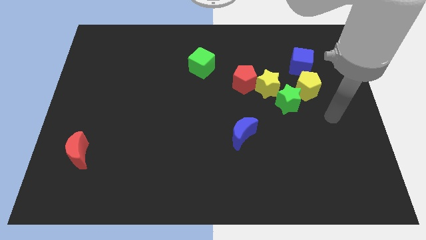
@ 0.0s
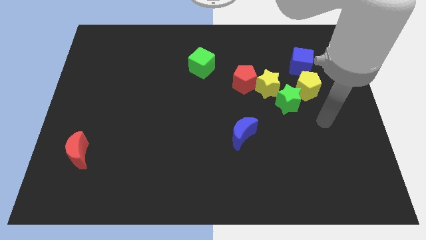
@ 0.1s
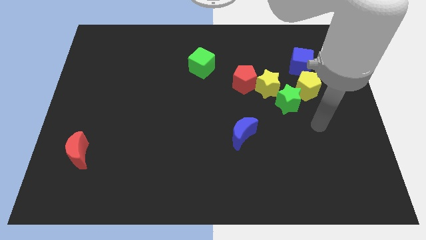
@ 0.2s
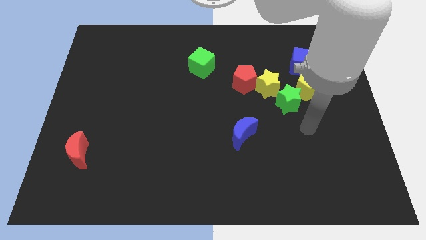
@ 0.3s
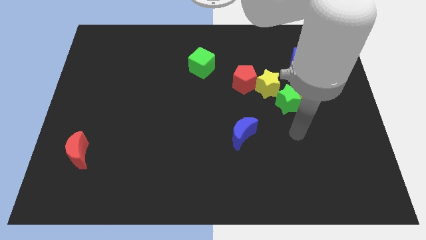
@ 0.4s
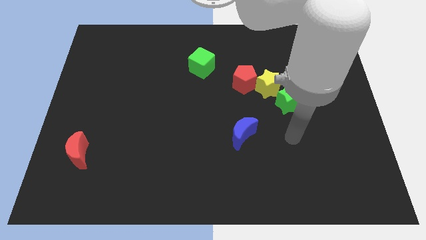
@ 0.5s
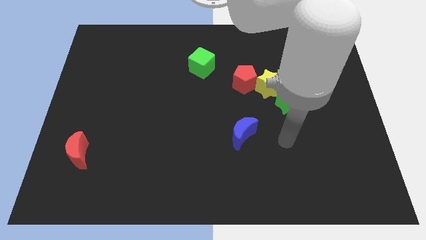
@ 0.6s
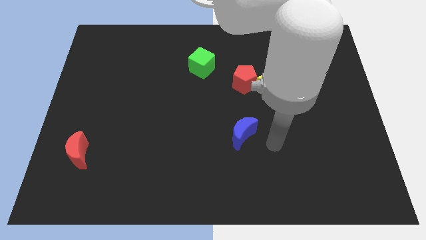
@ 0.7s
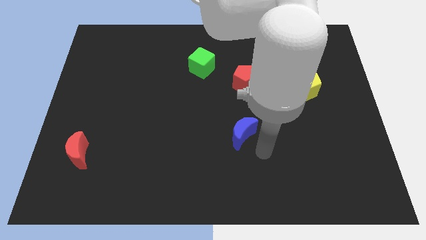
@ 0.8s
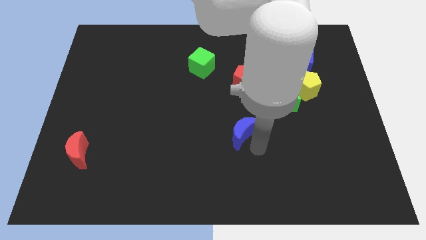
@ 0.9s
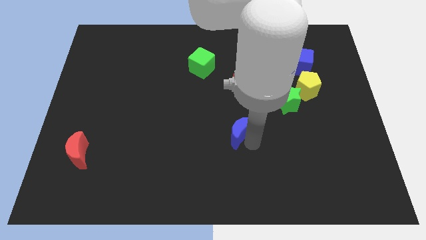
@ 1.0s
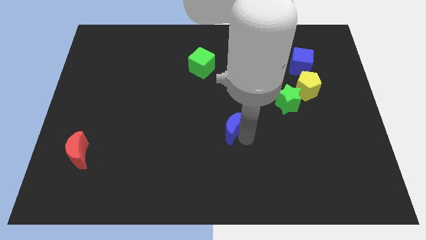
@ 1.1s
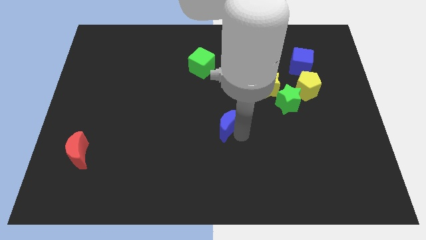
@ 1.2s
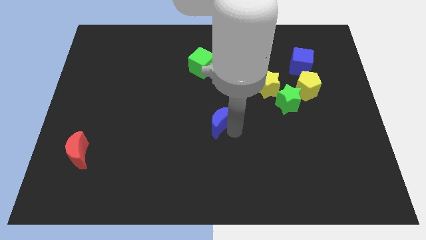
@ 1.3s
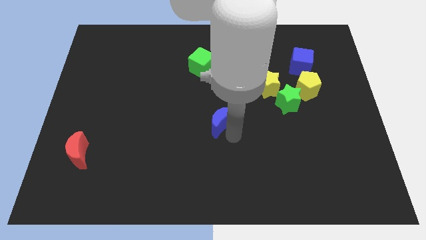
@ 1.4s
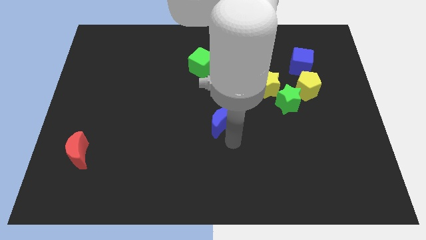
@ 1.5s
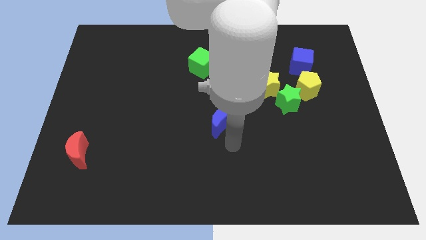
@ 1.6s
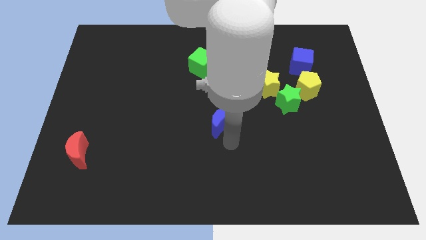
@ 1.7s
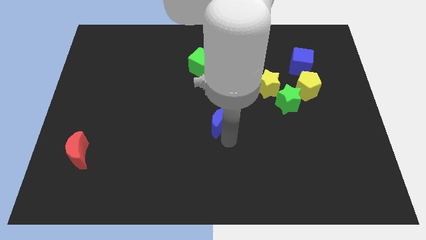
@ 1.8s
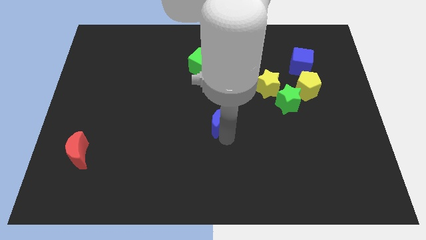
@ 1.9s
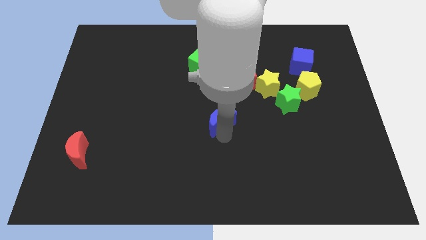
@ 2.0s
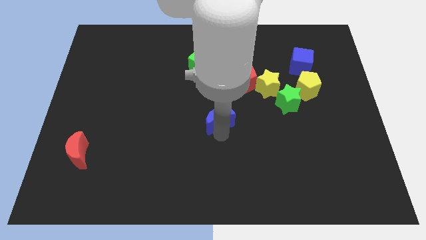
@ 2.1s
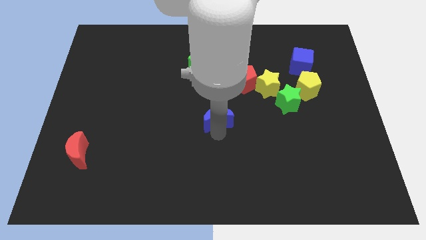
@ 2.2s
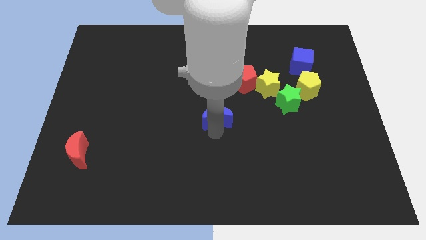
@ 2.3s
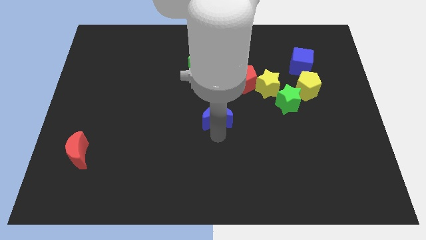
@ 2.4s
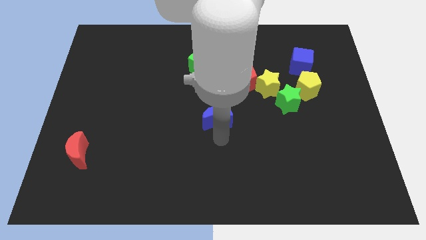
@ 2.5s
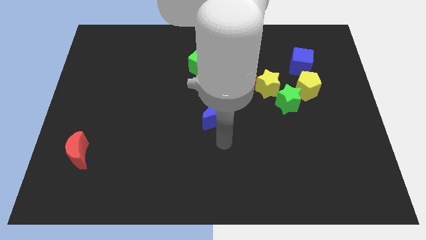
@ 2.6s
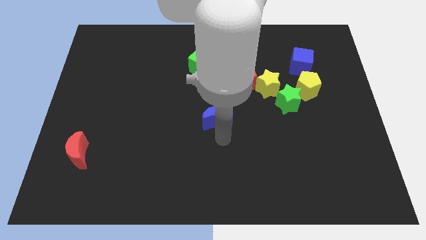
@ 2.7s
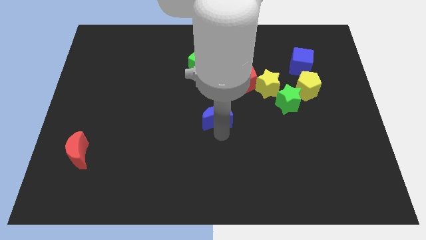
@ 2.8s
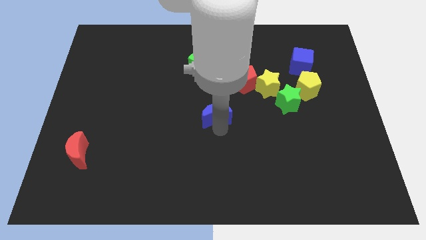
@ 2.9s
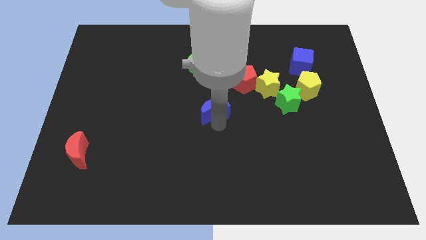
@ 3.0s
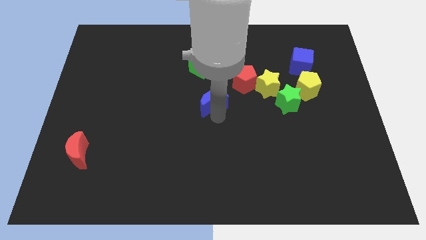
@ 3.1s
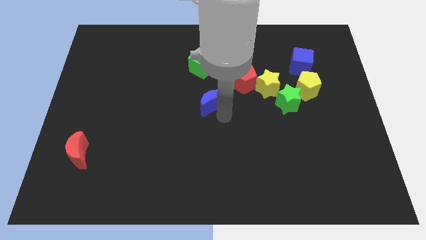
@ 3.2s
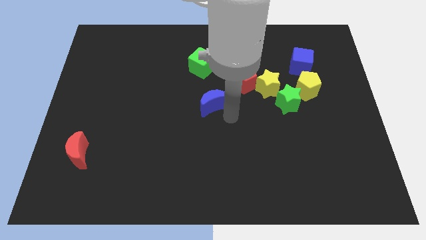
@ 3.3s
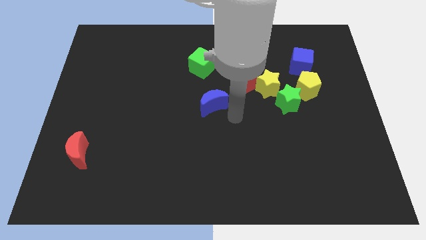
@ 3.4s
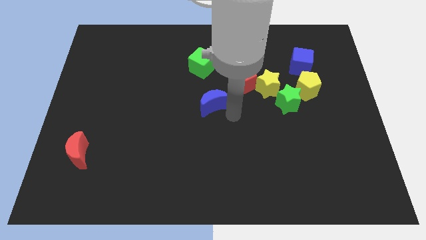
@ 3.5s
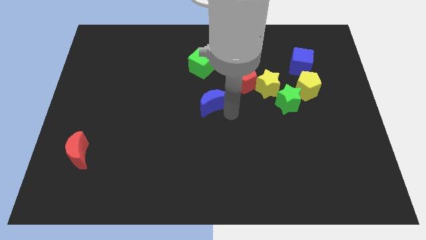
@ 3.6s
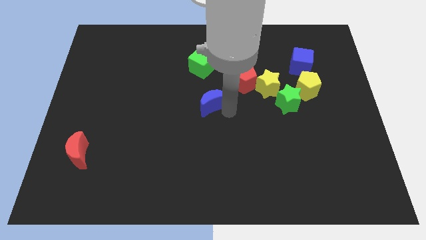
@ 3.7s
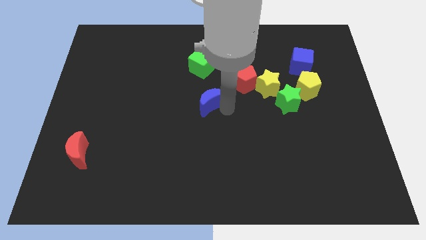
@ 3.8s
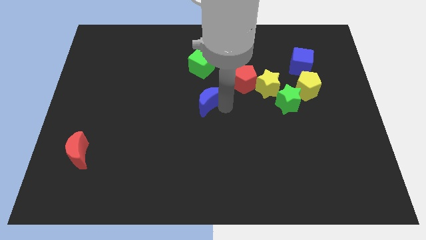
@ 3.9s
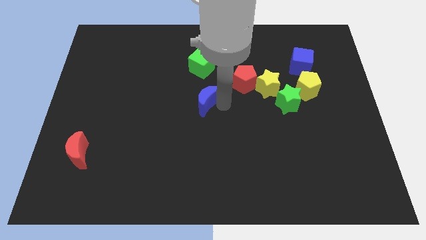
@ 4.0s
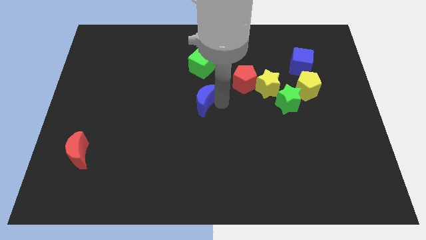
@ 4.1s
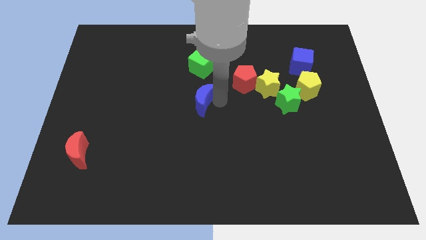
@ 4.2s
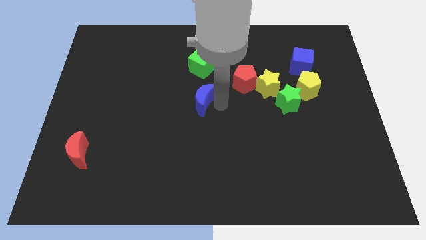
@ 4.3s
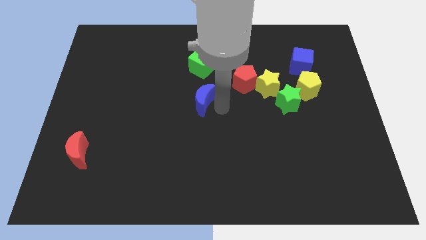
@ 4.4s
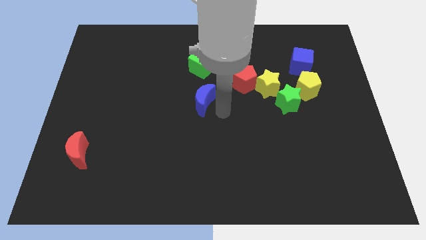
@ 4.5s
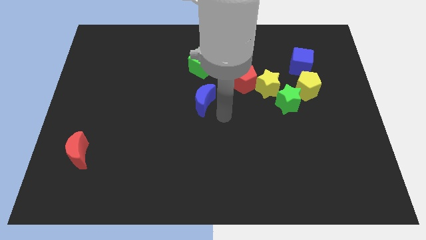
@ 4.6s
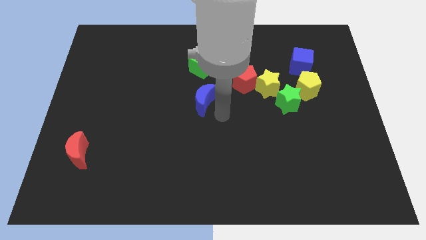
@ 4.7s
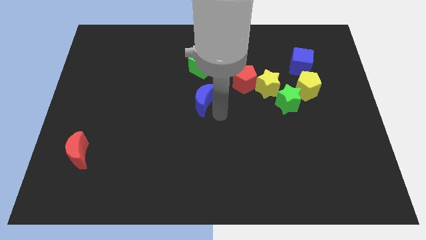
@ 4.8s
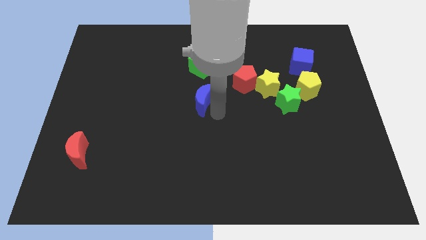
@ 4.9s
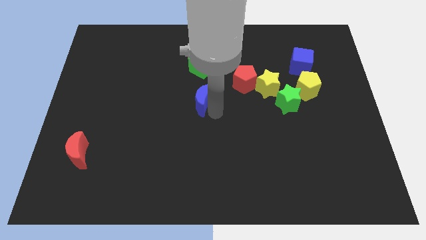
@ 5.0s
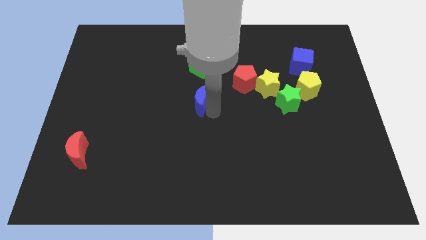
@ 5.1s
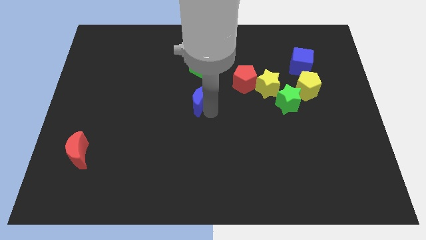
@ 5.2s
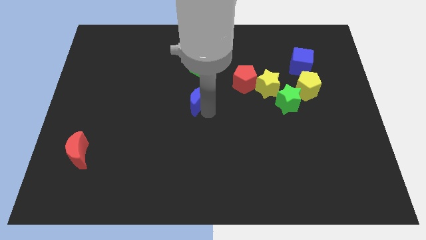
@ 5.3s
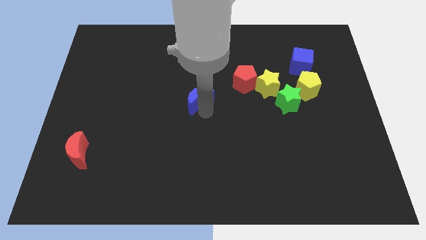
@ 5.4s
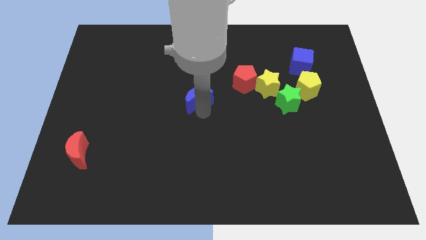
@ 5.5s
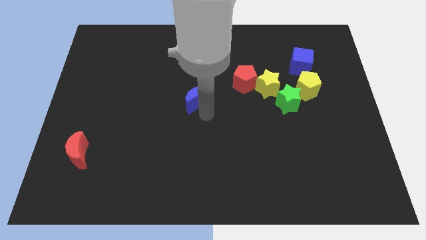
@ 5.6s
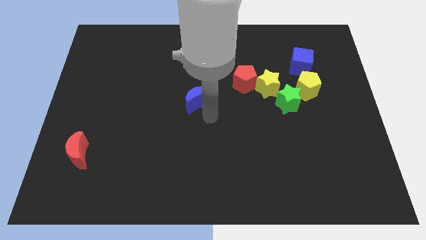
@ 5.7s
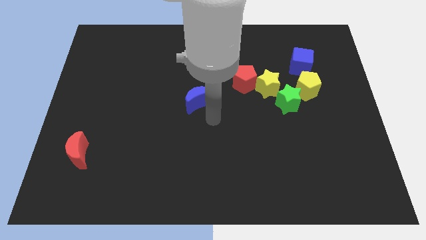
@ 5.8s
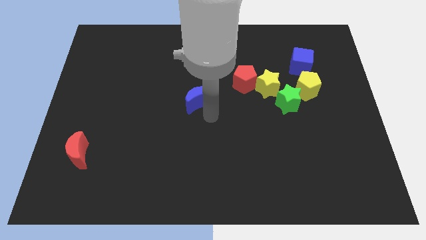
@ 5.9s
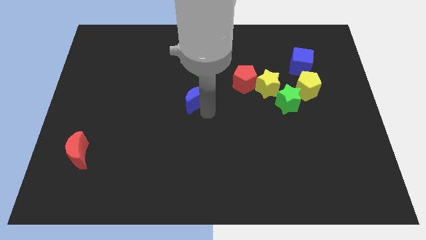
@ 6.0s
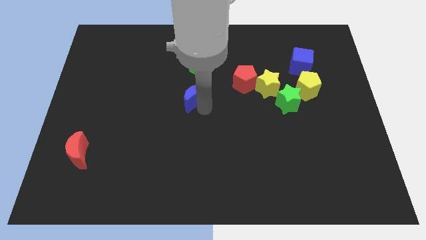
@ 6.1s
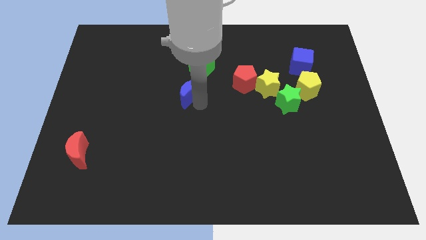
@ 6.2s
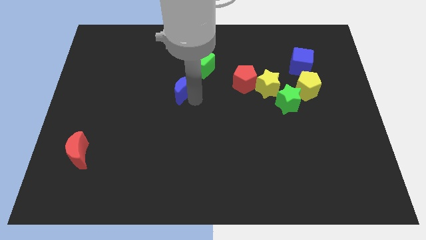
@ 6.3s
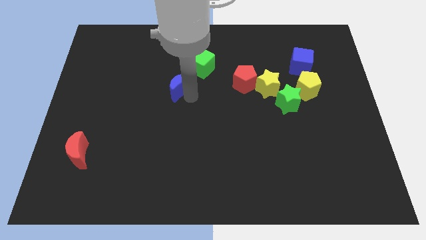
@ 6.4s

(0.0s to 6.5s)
push the blue moon up and then left

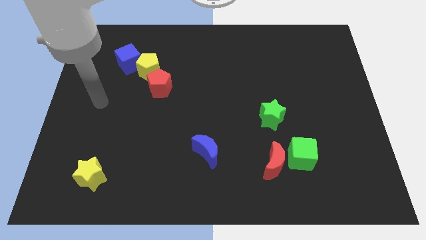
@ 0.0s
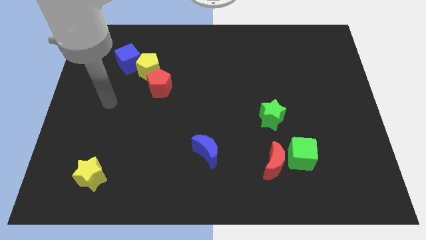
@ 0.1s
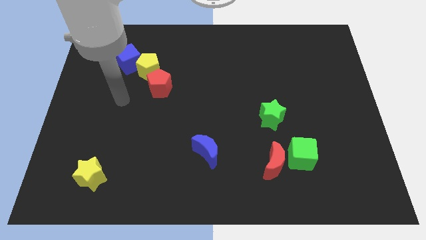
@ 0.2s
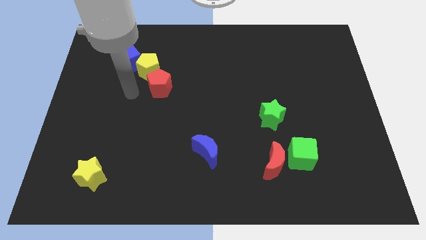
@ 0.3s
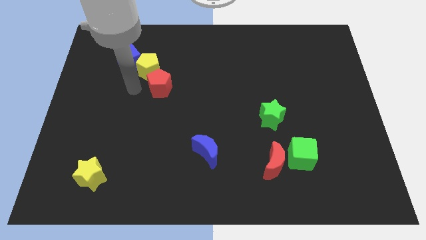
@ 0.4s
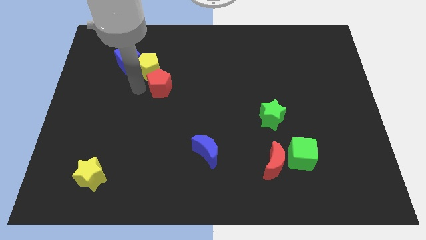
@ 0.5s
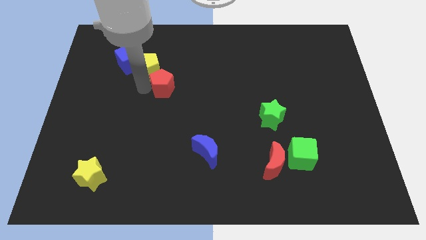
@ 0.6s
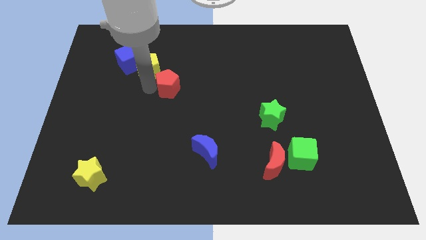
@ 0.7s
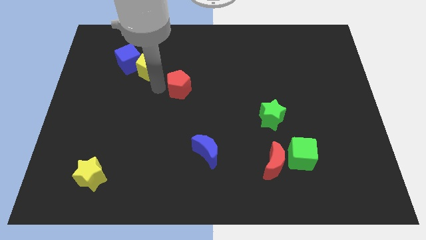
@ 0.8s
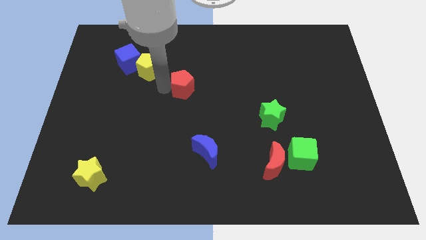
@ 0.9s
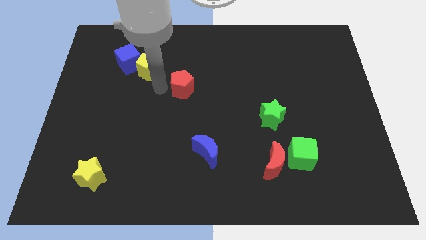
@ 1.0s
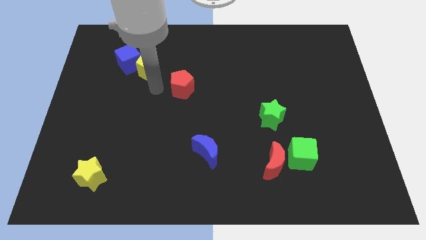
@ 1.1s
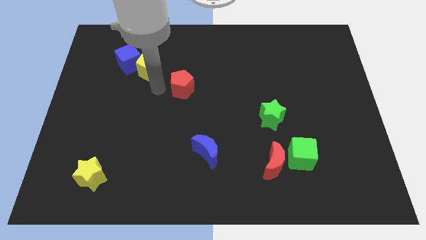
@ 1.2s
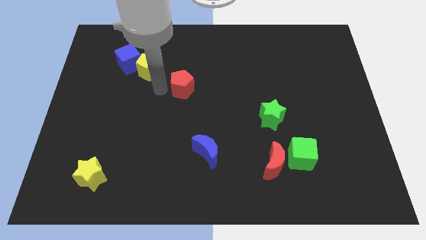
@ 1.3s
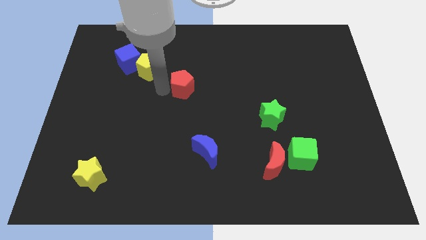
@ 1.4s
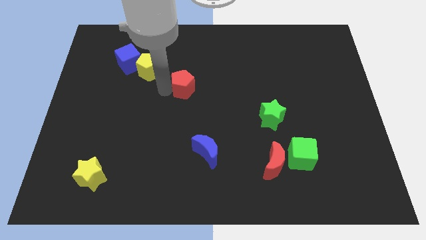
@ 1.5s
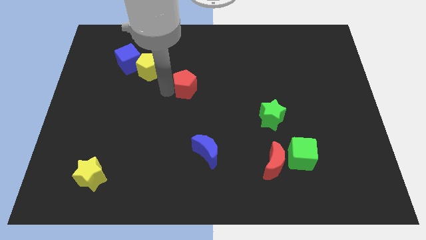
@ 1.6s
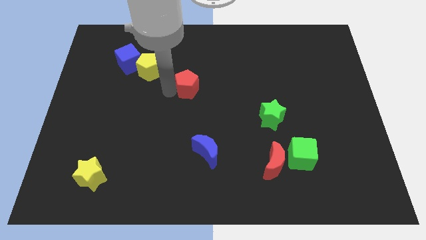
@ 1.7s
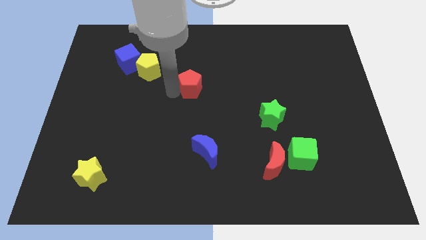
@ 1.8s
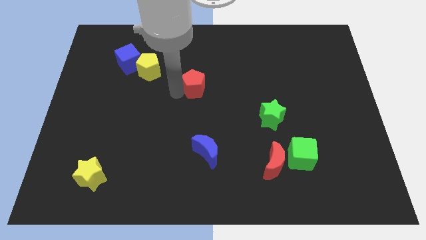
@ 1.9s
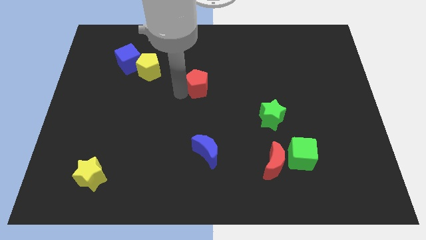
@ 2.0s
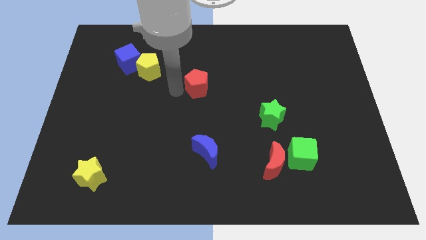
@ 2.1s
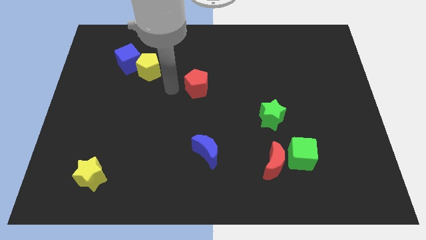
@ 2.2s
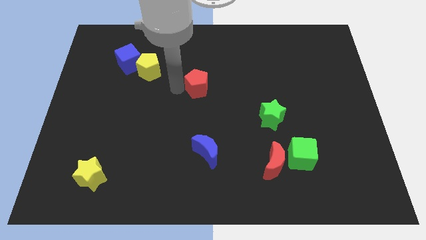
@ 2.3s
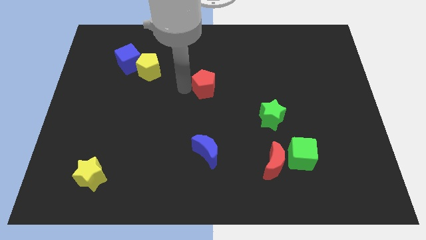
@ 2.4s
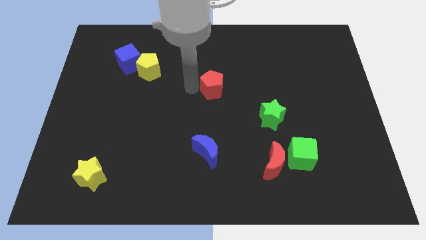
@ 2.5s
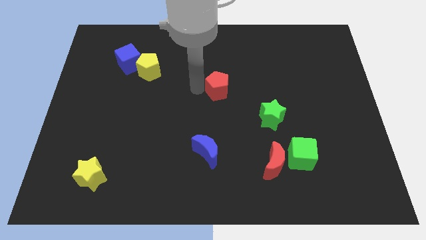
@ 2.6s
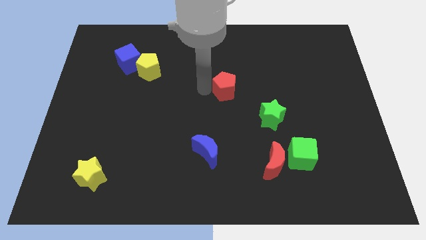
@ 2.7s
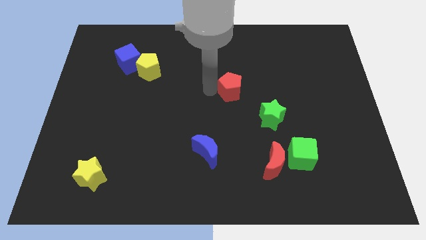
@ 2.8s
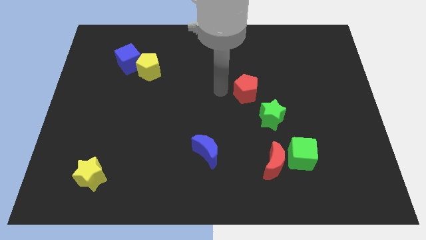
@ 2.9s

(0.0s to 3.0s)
move the red pentagon to the right
